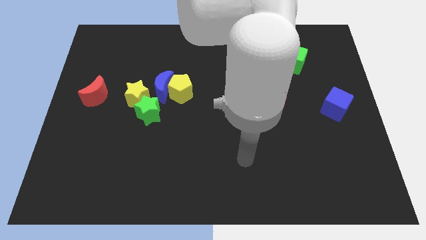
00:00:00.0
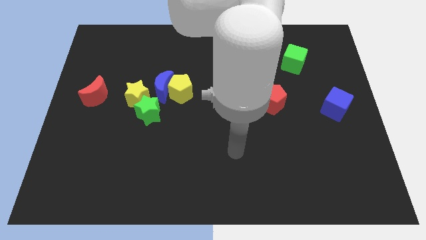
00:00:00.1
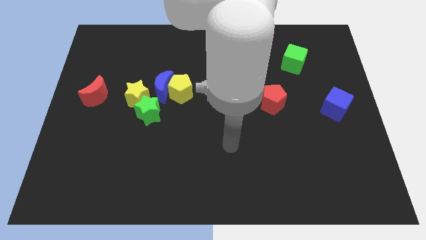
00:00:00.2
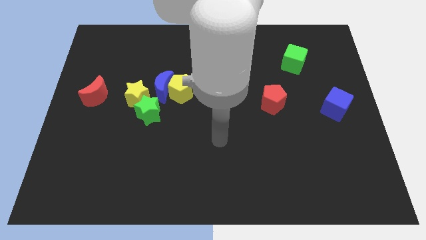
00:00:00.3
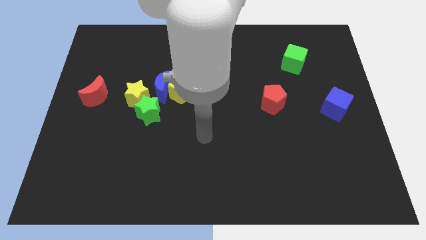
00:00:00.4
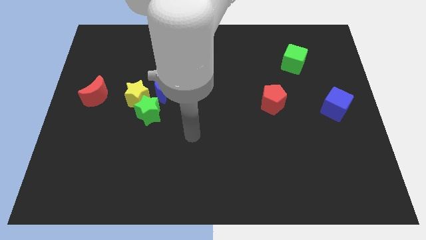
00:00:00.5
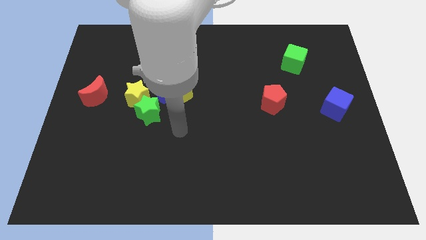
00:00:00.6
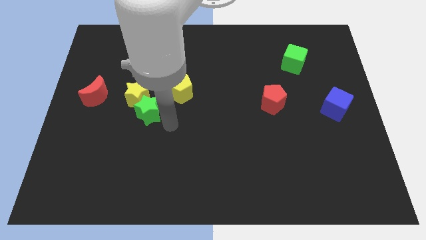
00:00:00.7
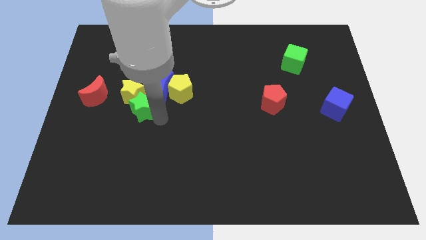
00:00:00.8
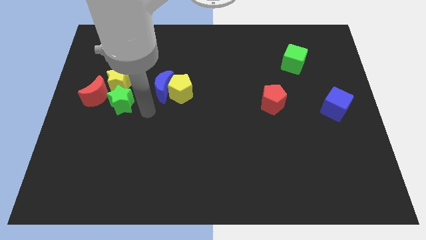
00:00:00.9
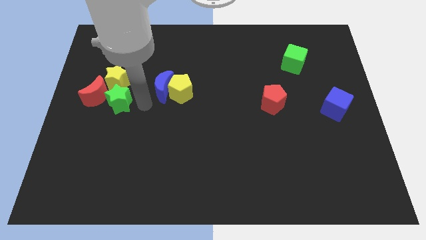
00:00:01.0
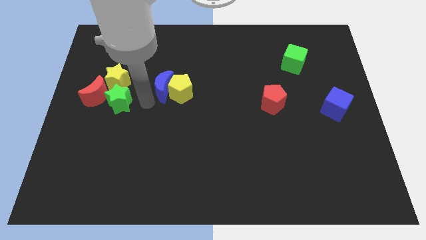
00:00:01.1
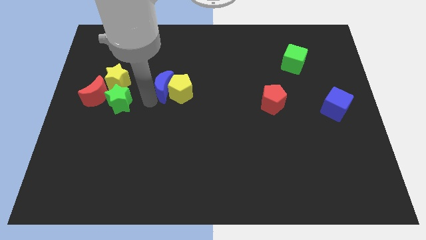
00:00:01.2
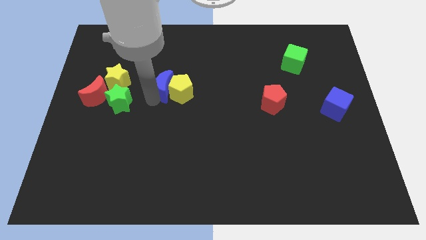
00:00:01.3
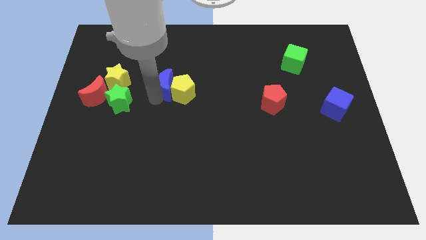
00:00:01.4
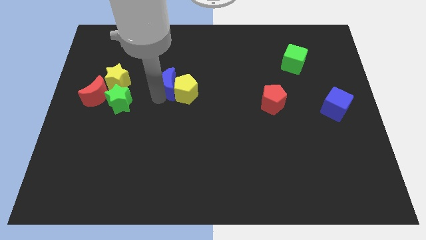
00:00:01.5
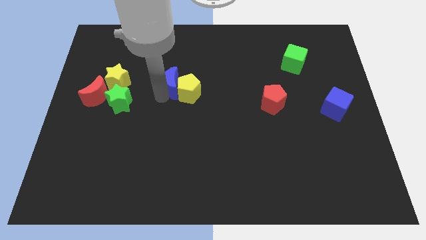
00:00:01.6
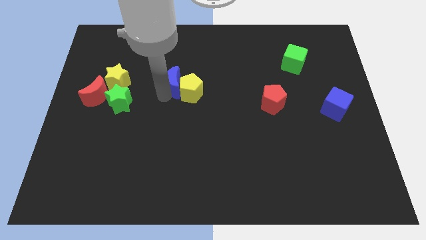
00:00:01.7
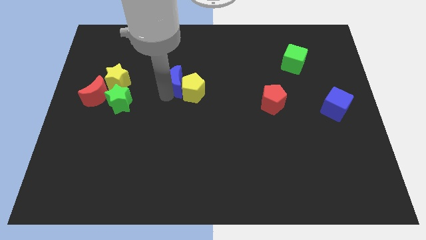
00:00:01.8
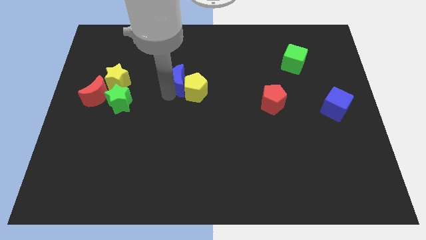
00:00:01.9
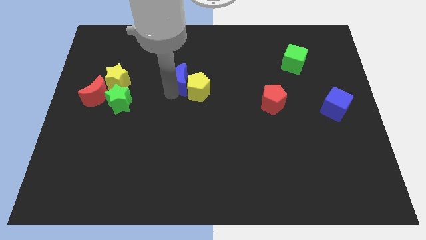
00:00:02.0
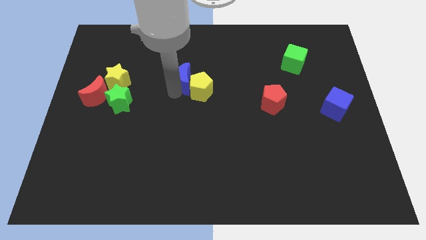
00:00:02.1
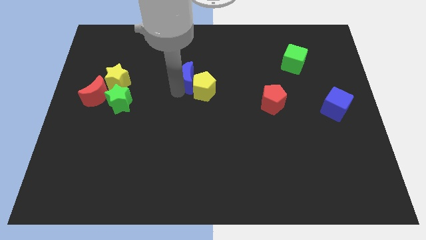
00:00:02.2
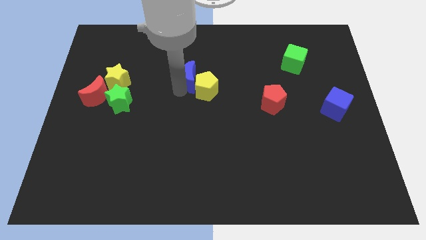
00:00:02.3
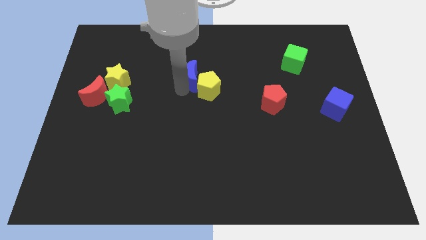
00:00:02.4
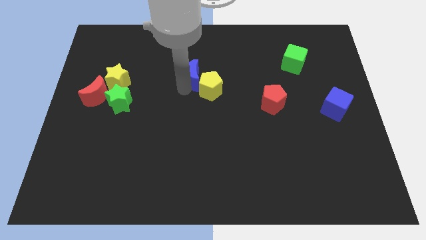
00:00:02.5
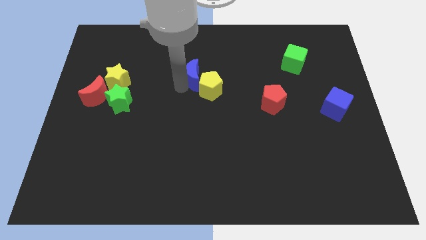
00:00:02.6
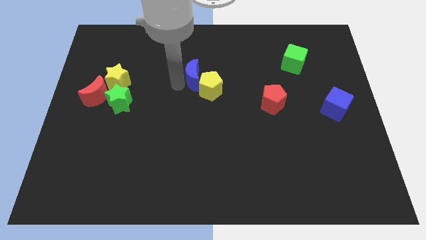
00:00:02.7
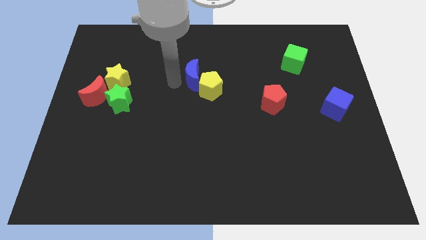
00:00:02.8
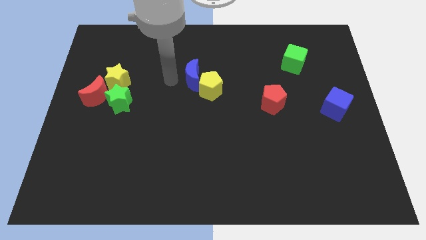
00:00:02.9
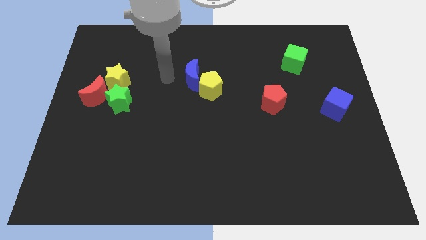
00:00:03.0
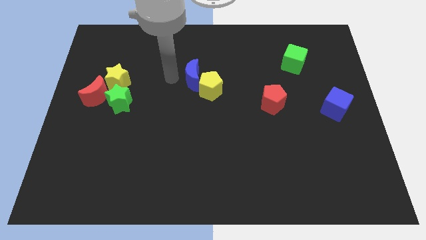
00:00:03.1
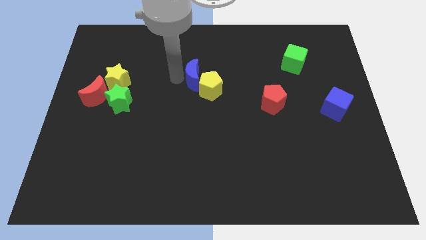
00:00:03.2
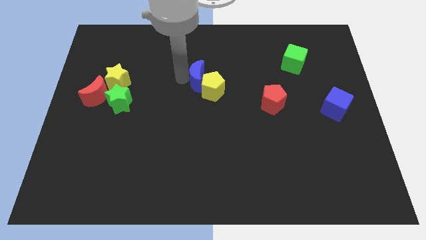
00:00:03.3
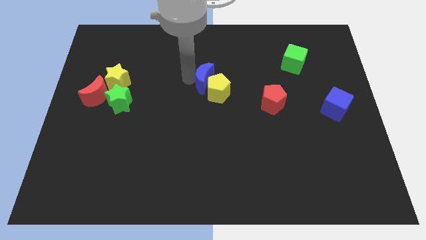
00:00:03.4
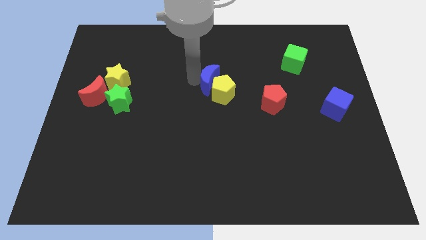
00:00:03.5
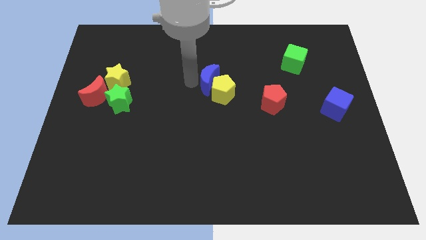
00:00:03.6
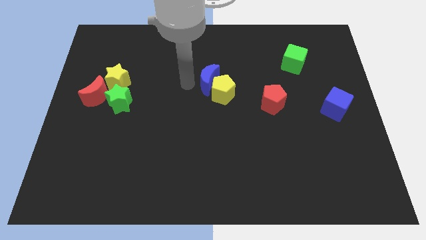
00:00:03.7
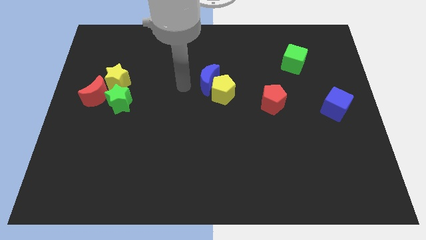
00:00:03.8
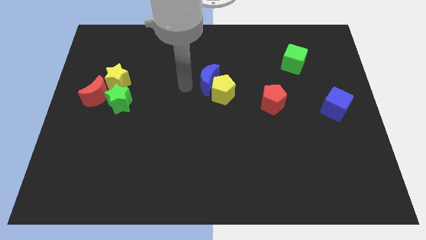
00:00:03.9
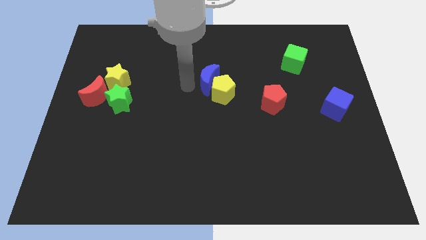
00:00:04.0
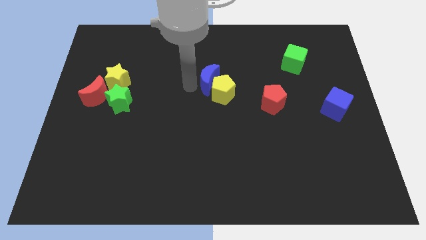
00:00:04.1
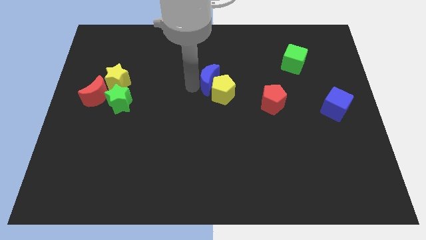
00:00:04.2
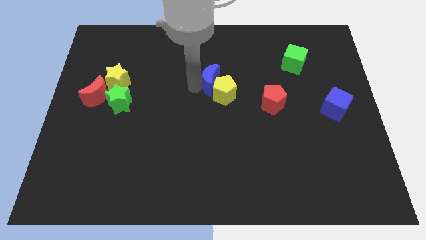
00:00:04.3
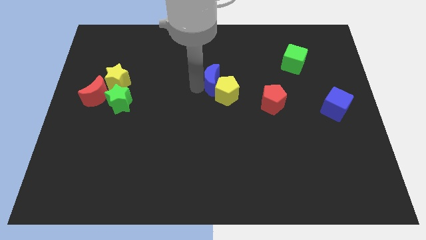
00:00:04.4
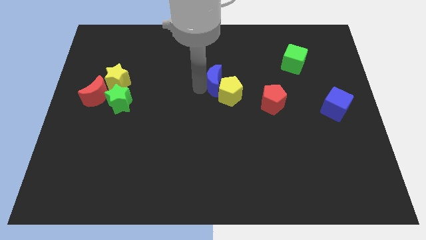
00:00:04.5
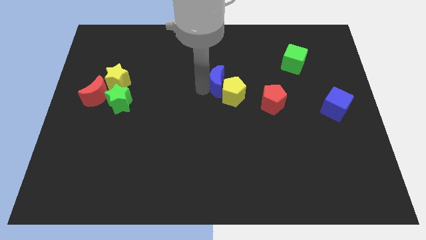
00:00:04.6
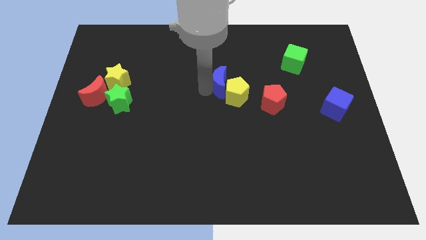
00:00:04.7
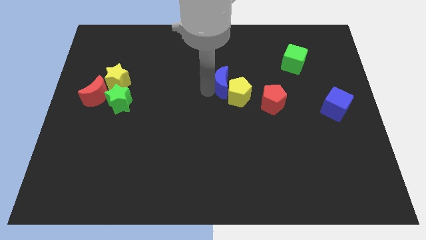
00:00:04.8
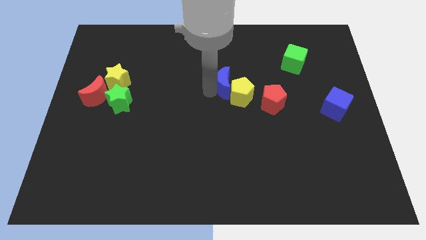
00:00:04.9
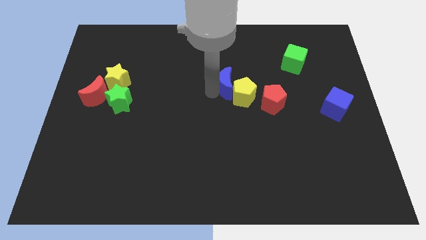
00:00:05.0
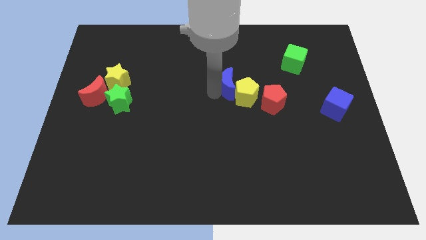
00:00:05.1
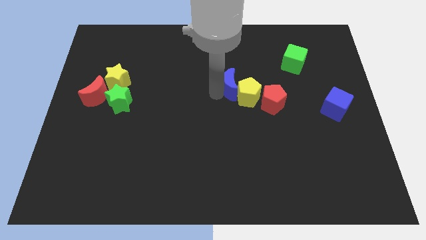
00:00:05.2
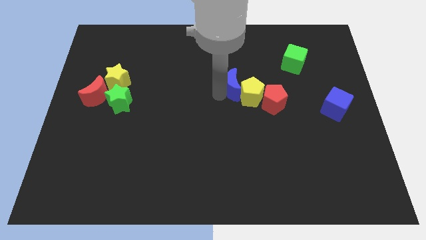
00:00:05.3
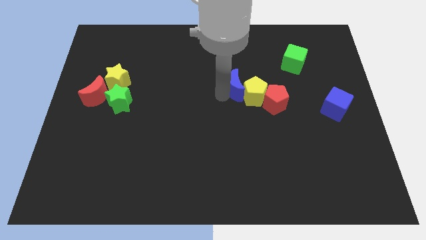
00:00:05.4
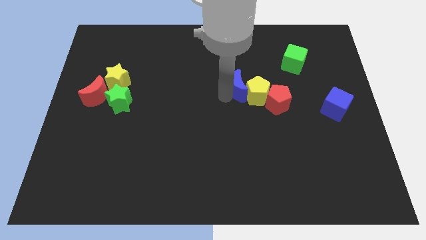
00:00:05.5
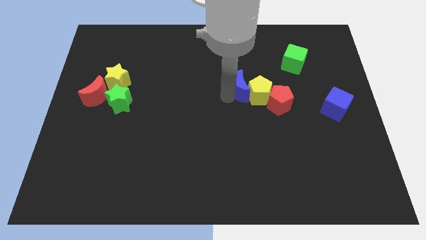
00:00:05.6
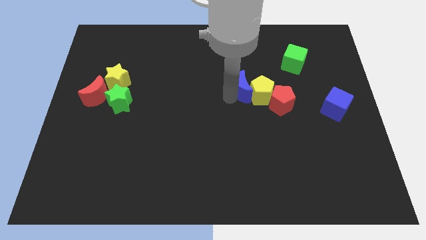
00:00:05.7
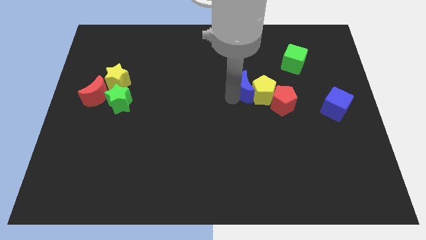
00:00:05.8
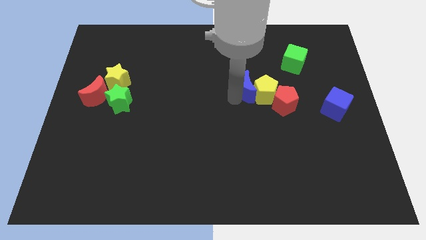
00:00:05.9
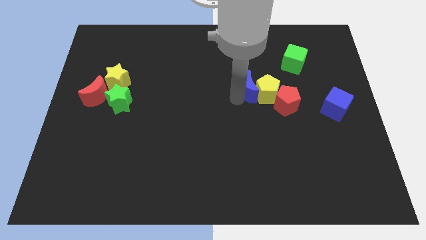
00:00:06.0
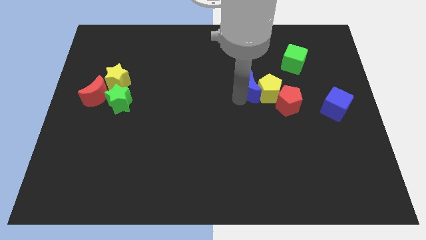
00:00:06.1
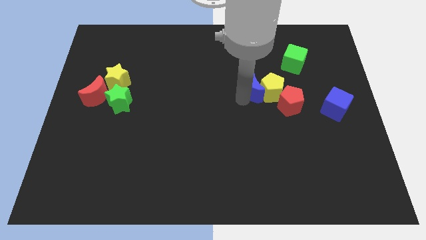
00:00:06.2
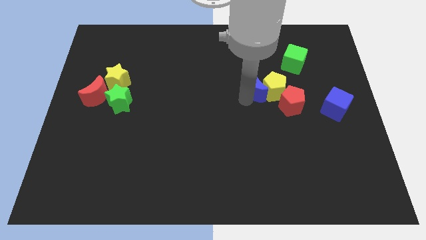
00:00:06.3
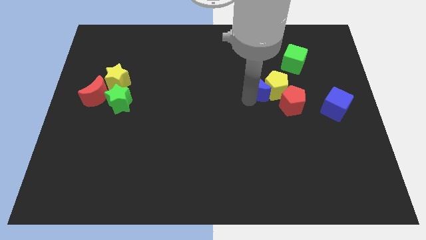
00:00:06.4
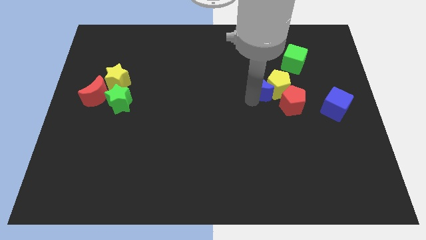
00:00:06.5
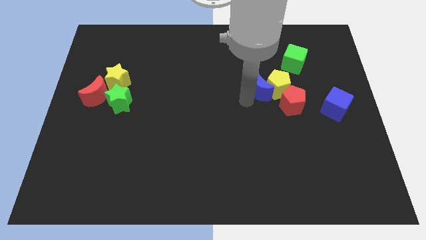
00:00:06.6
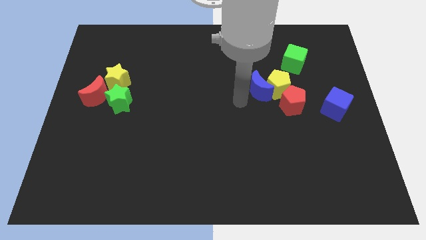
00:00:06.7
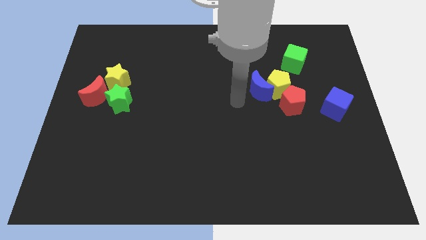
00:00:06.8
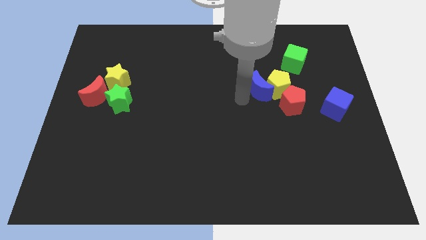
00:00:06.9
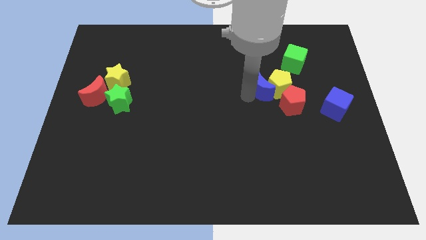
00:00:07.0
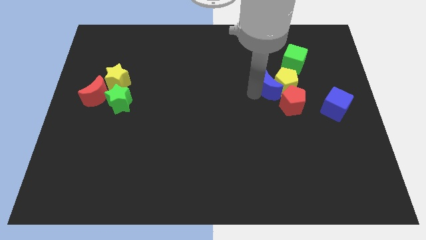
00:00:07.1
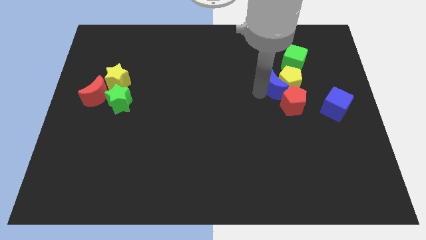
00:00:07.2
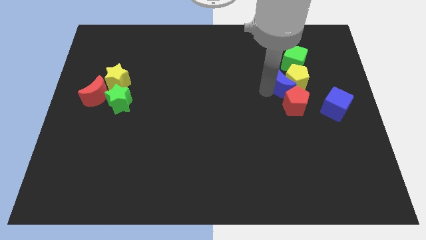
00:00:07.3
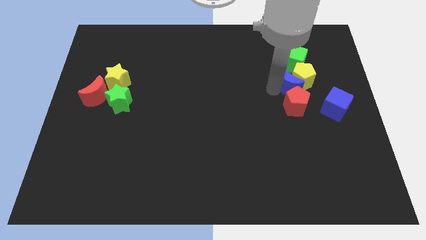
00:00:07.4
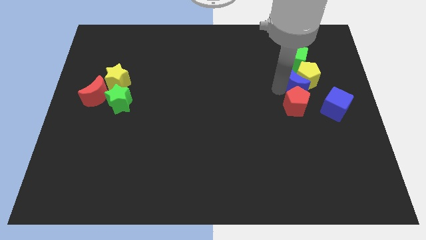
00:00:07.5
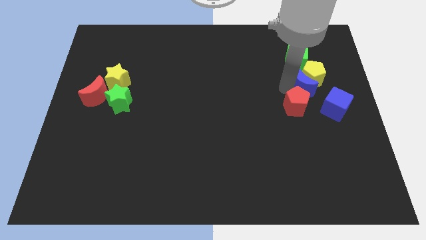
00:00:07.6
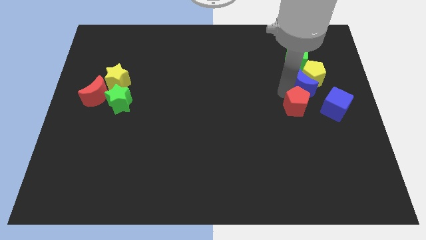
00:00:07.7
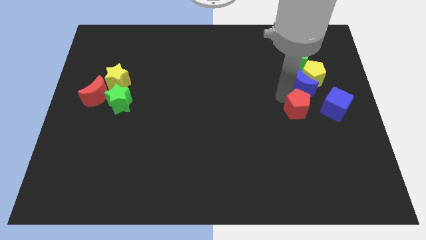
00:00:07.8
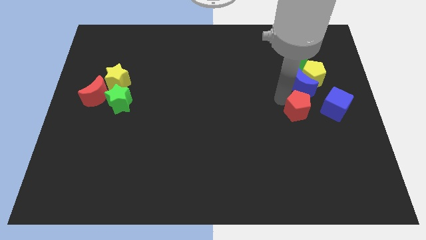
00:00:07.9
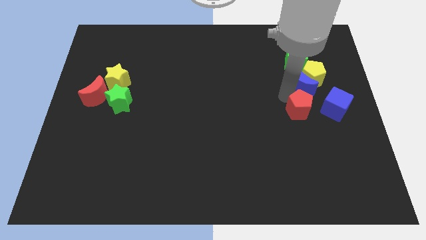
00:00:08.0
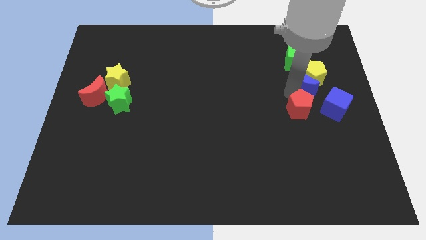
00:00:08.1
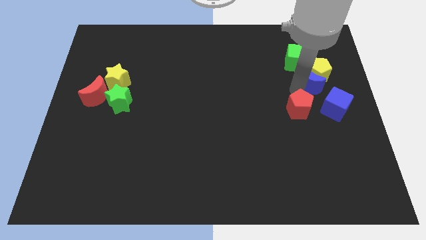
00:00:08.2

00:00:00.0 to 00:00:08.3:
move the blue moon to the bottom right side of the green cube
